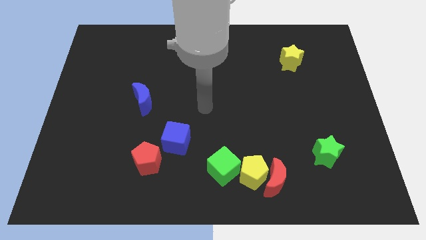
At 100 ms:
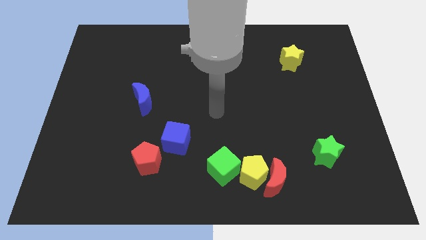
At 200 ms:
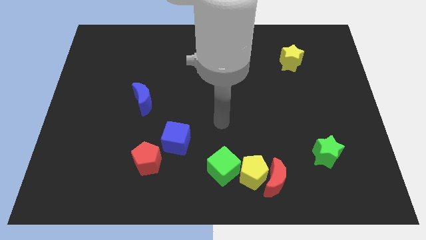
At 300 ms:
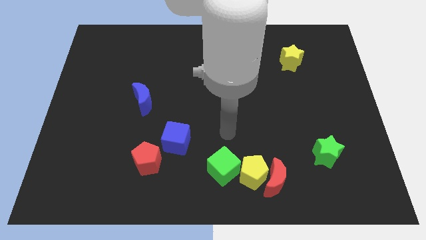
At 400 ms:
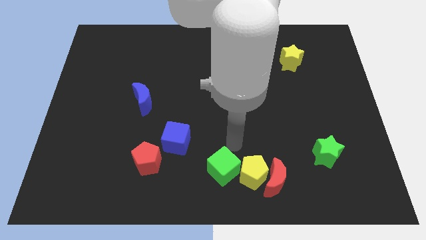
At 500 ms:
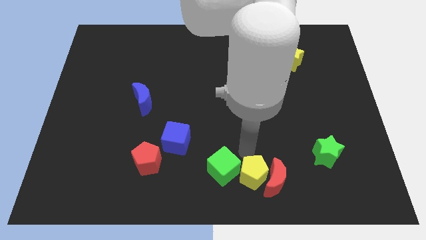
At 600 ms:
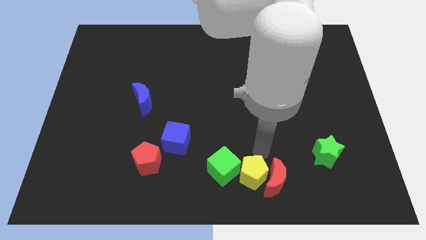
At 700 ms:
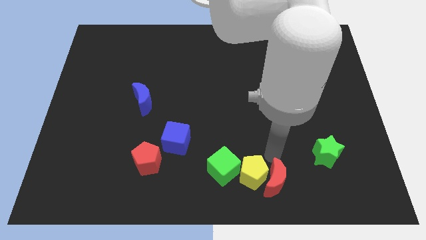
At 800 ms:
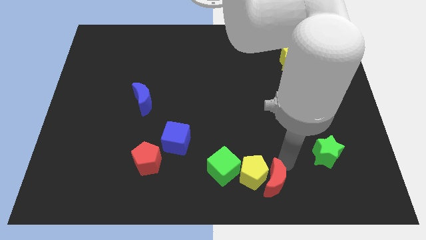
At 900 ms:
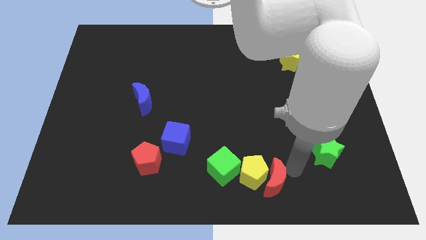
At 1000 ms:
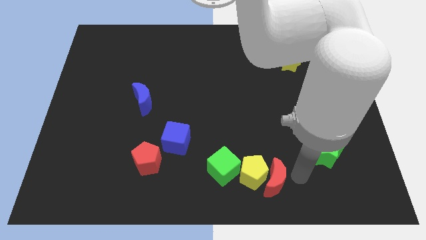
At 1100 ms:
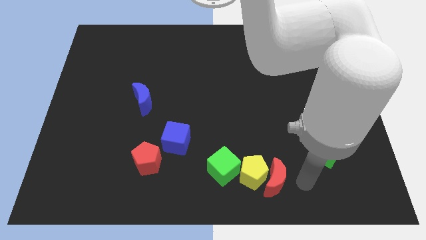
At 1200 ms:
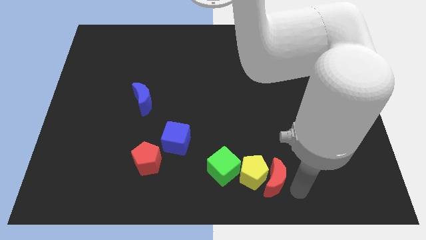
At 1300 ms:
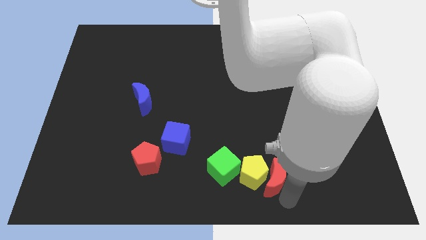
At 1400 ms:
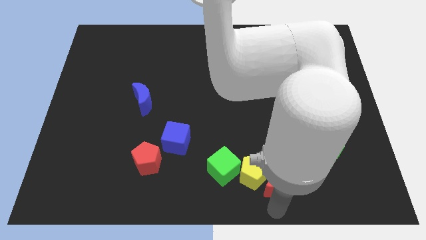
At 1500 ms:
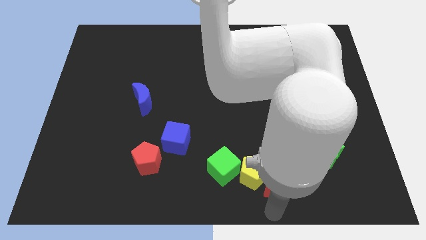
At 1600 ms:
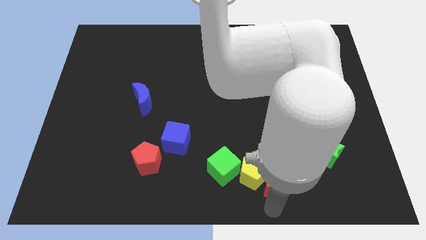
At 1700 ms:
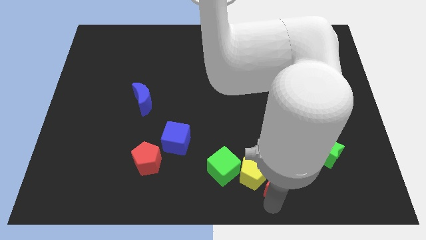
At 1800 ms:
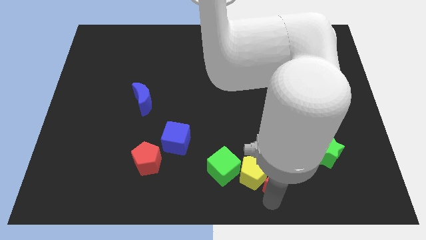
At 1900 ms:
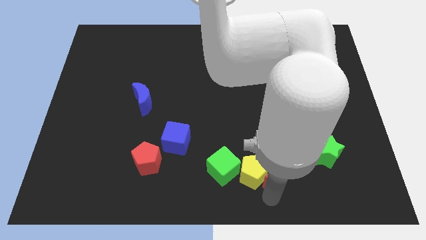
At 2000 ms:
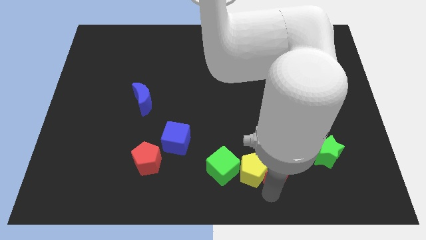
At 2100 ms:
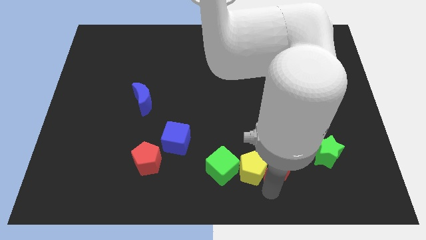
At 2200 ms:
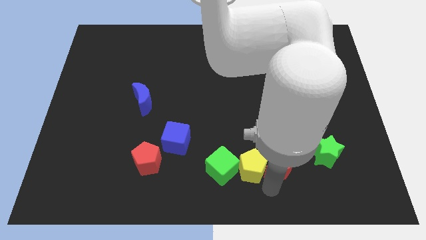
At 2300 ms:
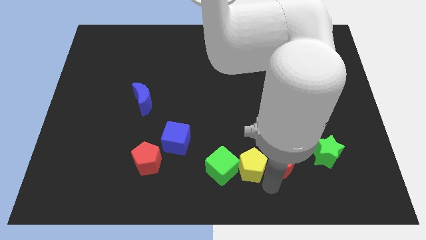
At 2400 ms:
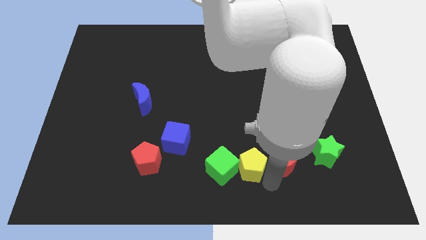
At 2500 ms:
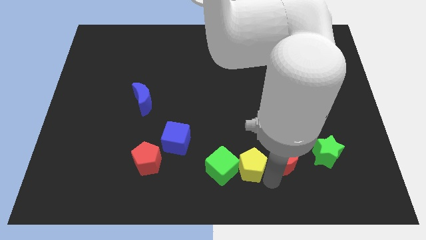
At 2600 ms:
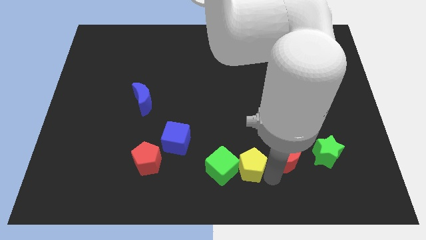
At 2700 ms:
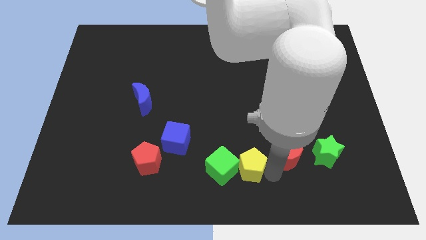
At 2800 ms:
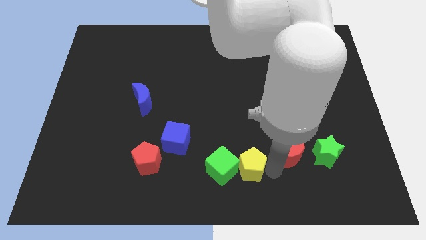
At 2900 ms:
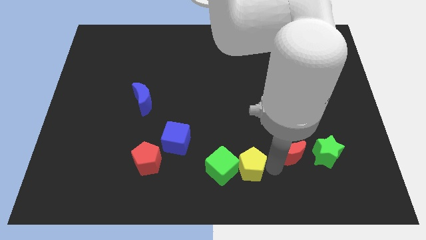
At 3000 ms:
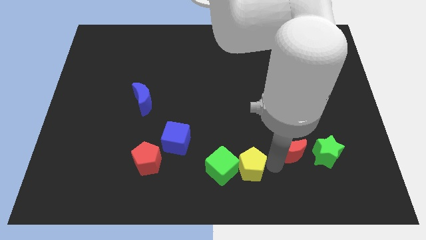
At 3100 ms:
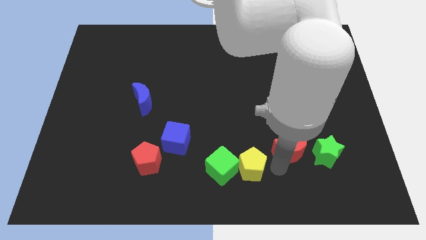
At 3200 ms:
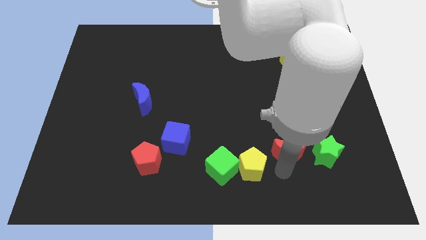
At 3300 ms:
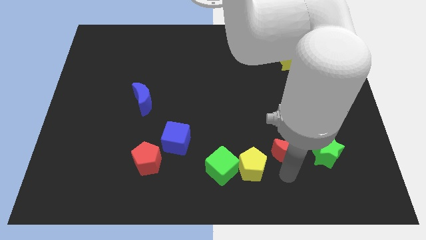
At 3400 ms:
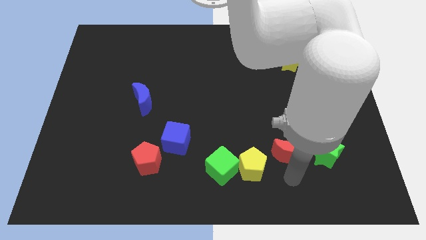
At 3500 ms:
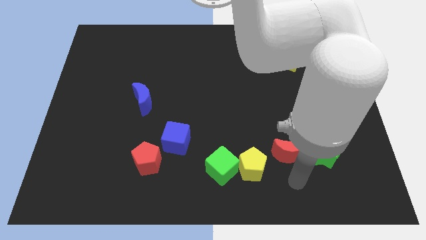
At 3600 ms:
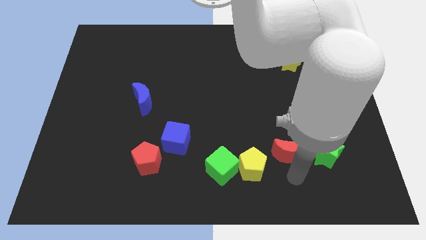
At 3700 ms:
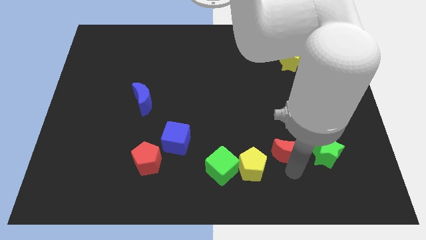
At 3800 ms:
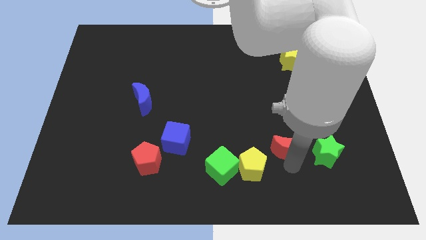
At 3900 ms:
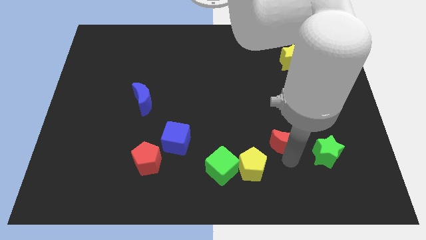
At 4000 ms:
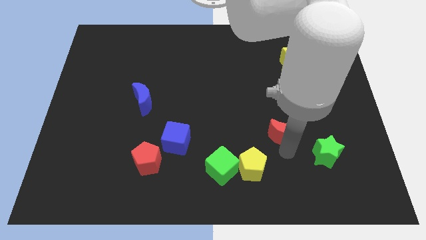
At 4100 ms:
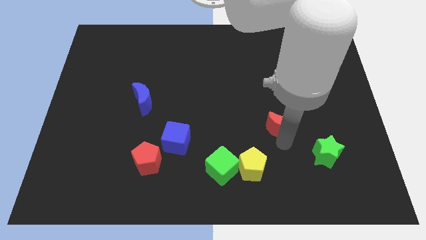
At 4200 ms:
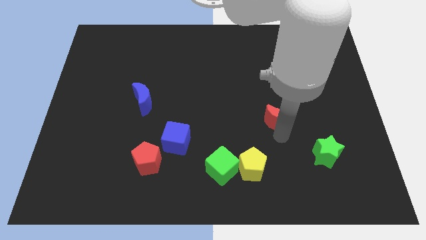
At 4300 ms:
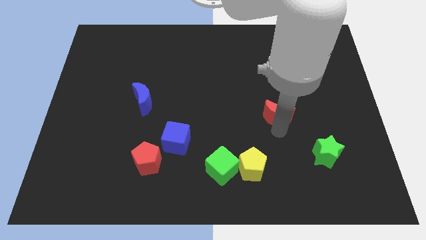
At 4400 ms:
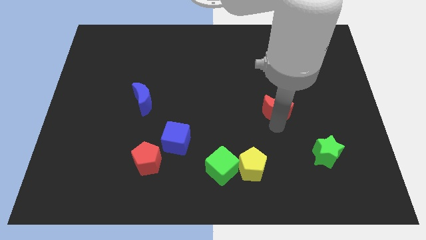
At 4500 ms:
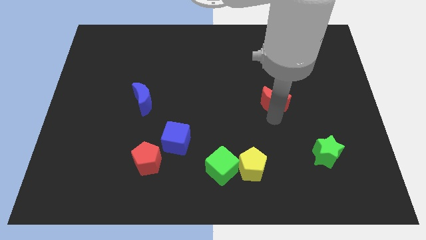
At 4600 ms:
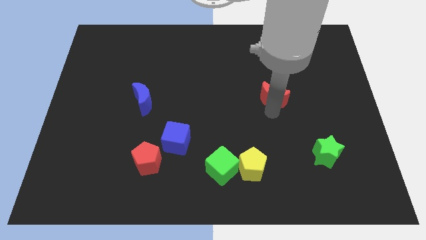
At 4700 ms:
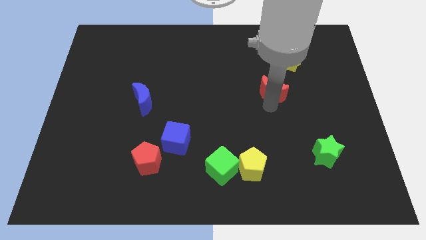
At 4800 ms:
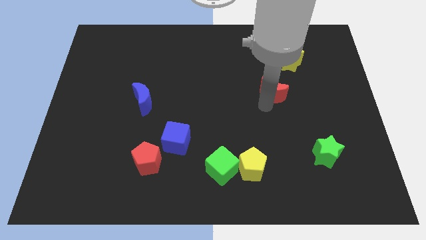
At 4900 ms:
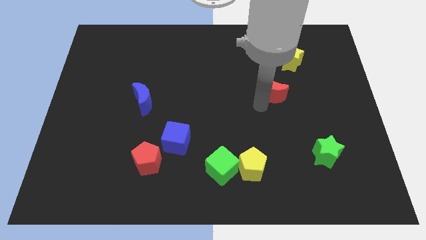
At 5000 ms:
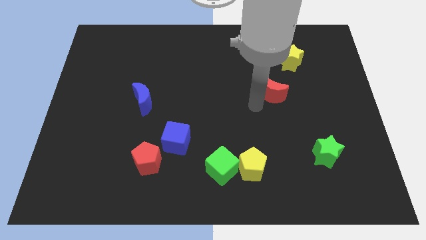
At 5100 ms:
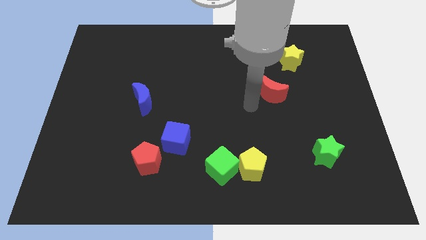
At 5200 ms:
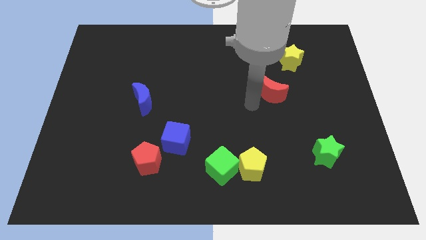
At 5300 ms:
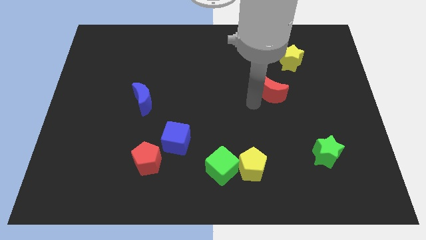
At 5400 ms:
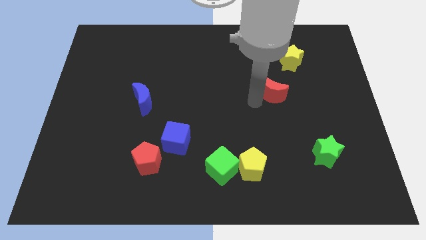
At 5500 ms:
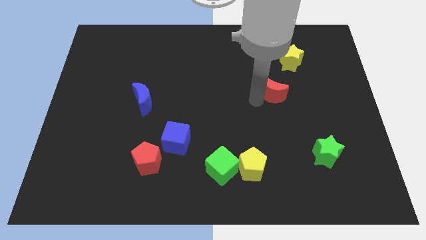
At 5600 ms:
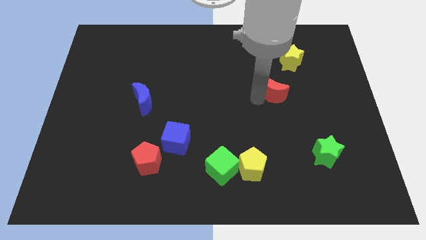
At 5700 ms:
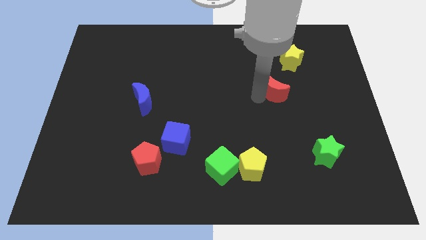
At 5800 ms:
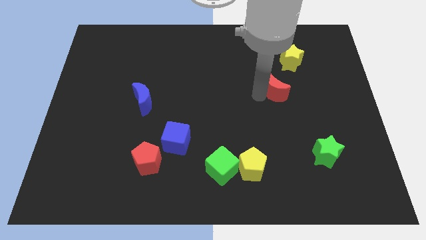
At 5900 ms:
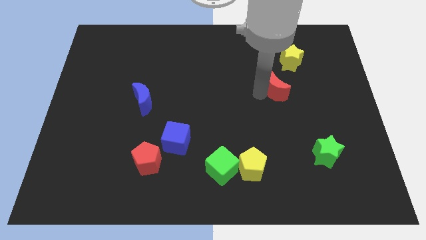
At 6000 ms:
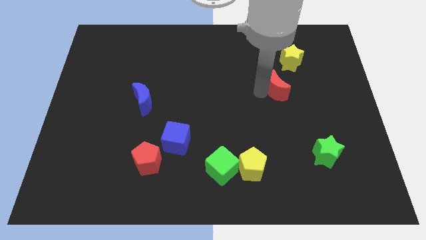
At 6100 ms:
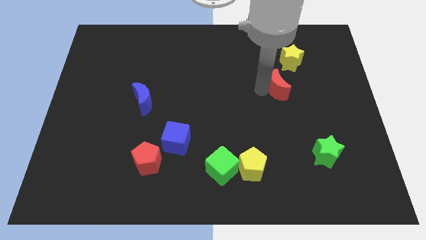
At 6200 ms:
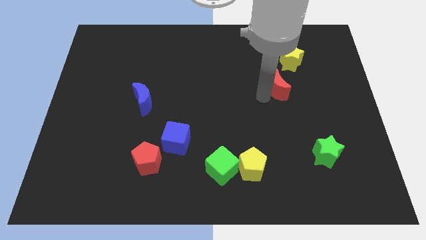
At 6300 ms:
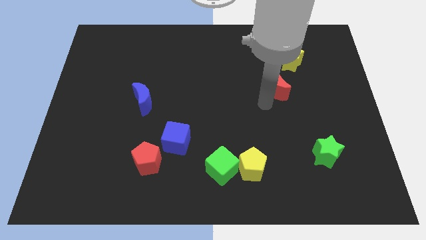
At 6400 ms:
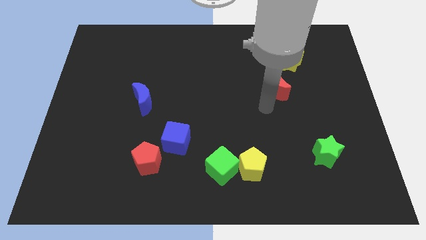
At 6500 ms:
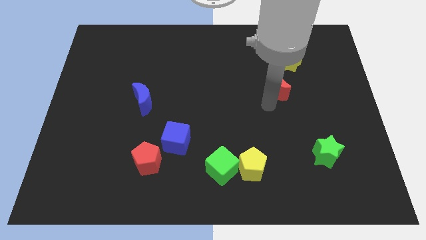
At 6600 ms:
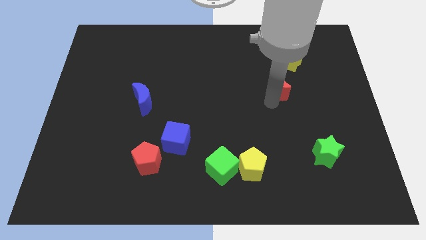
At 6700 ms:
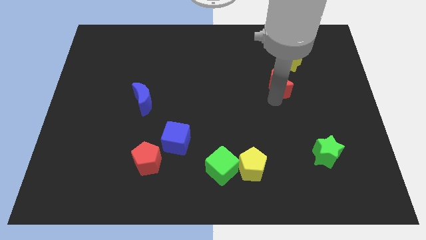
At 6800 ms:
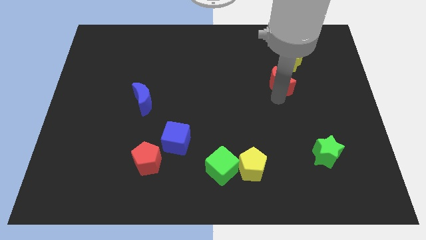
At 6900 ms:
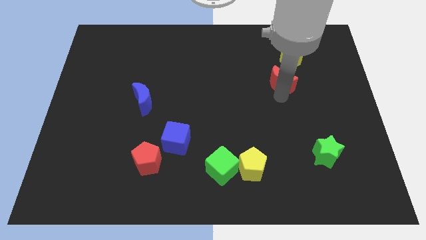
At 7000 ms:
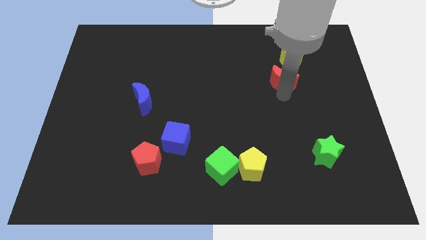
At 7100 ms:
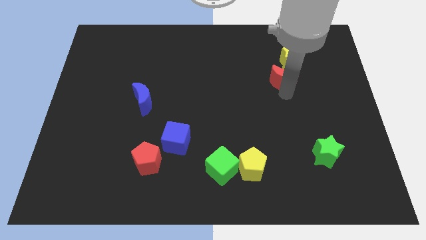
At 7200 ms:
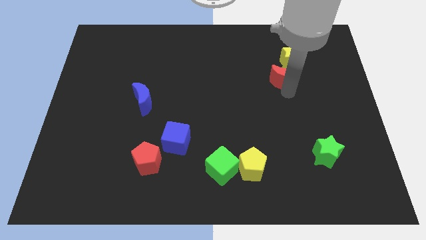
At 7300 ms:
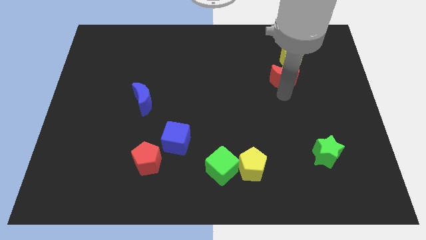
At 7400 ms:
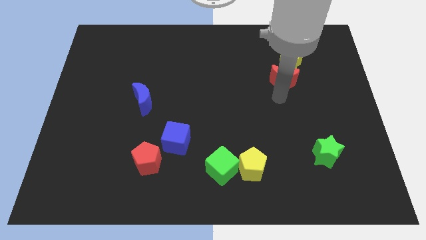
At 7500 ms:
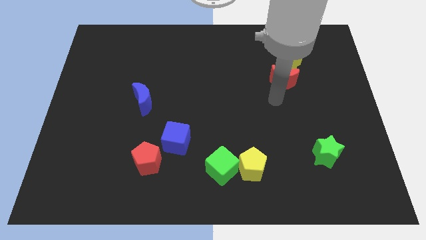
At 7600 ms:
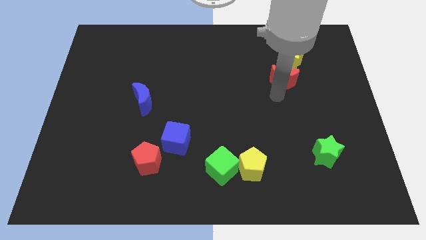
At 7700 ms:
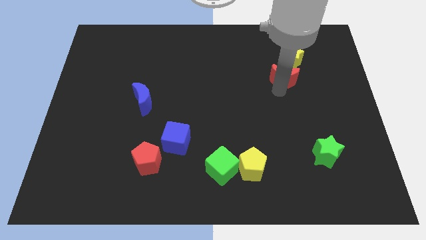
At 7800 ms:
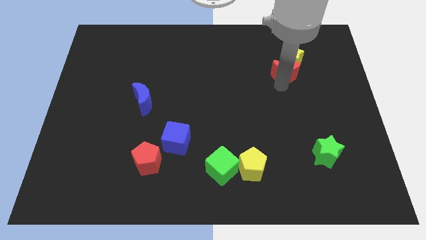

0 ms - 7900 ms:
put the red moon close to the yellow star
